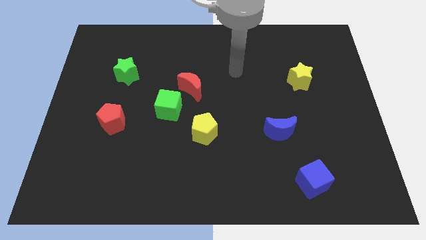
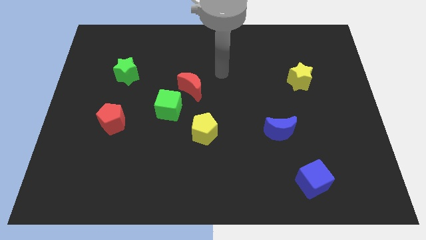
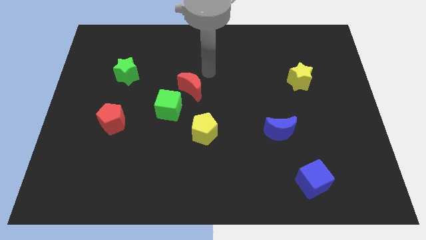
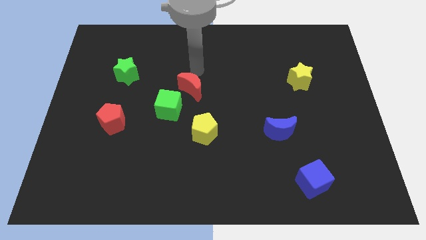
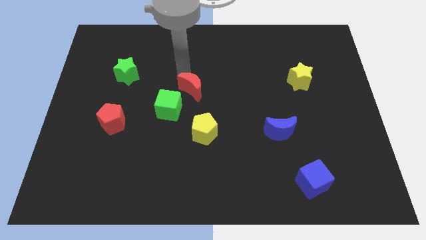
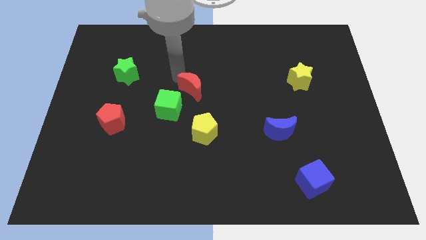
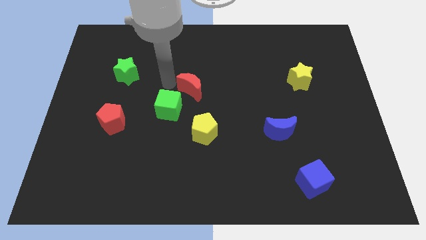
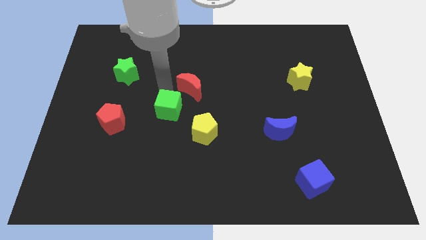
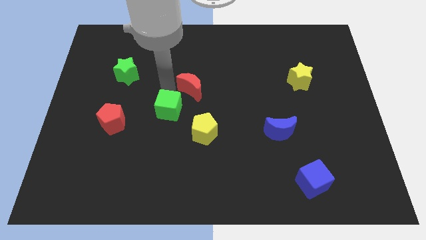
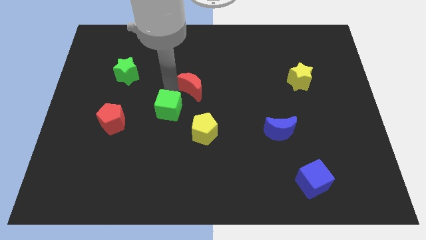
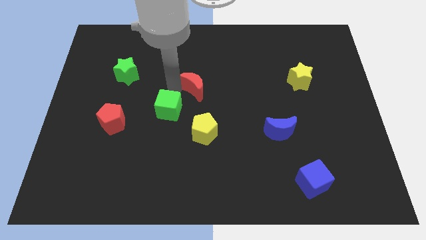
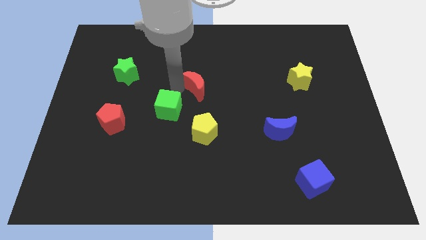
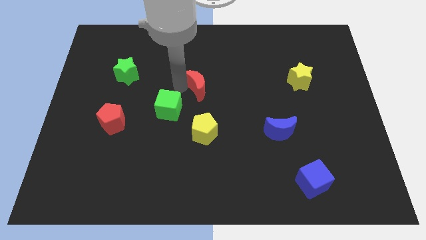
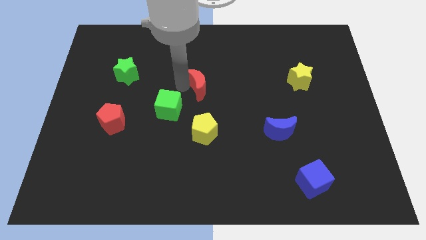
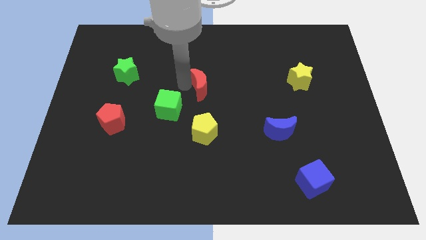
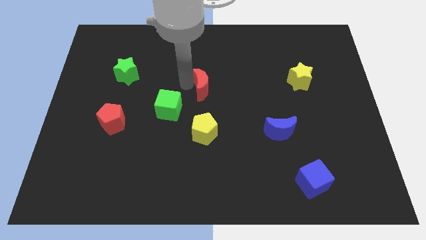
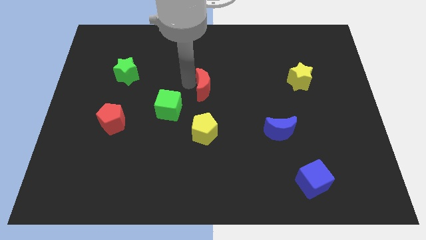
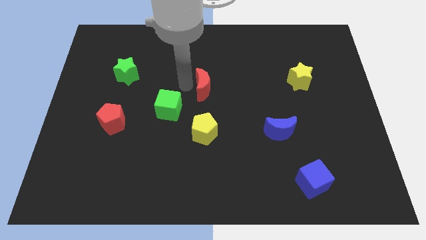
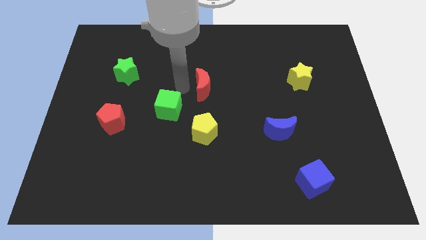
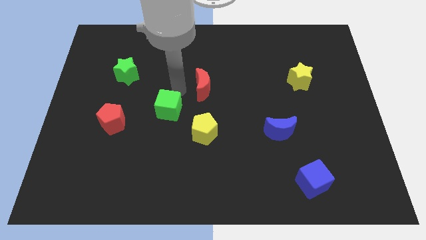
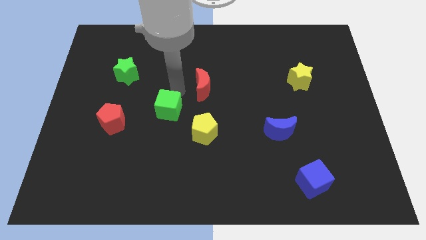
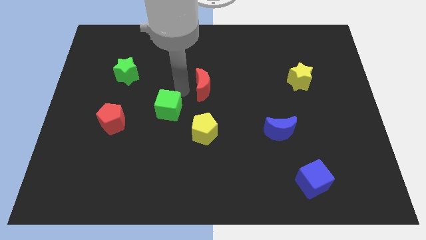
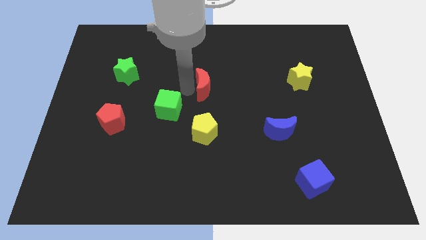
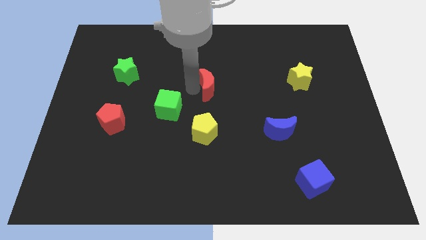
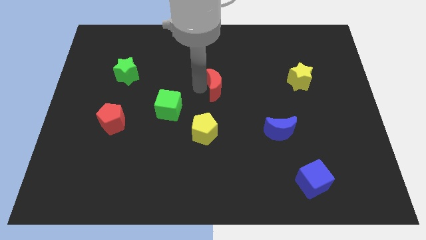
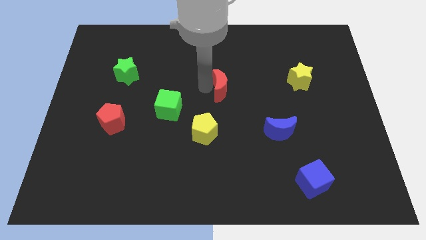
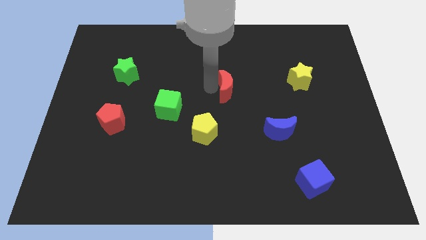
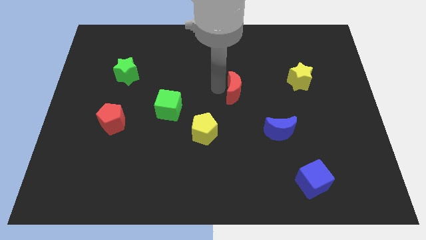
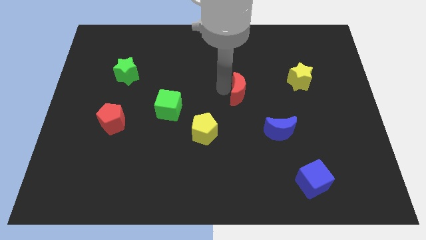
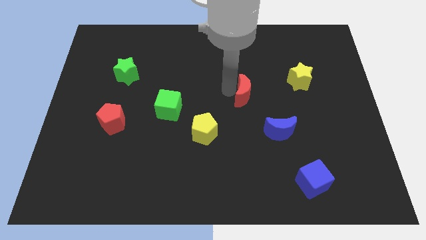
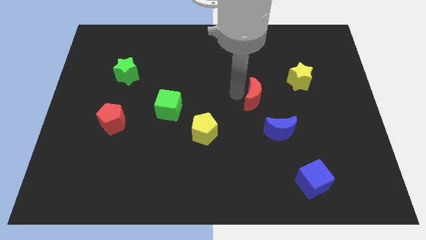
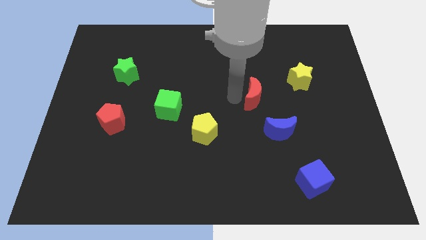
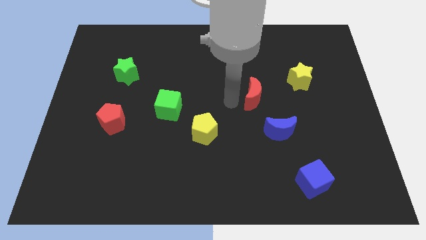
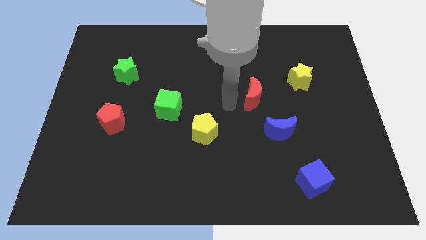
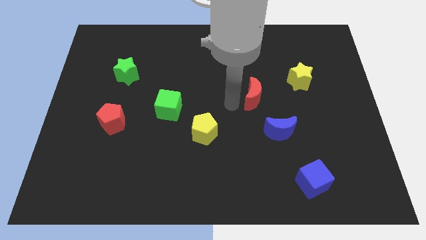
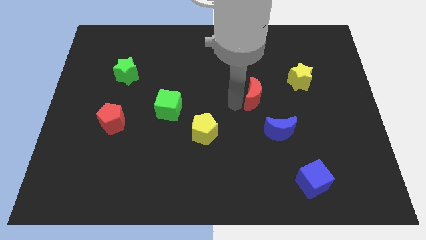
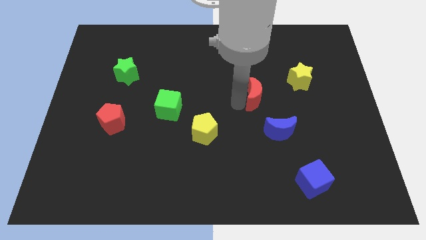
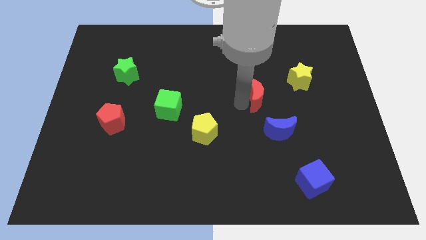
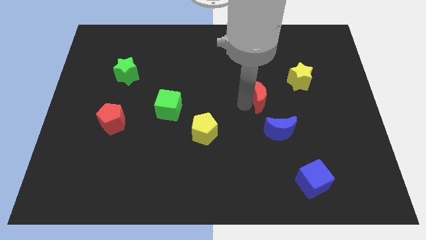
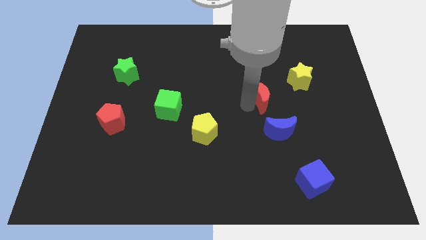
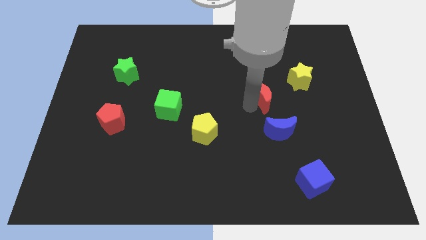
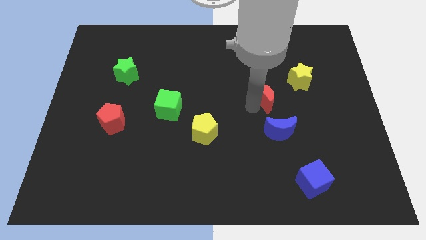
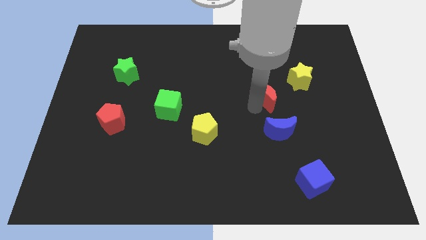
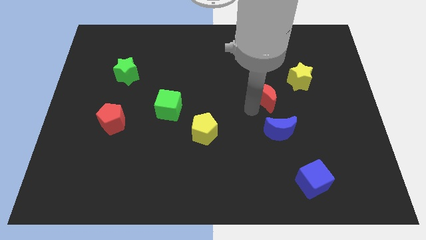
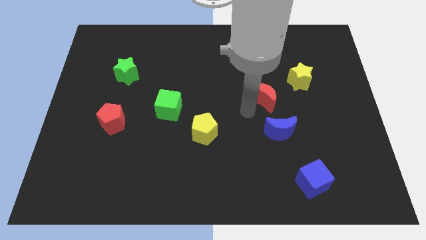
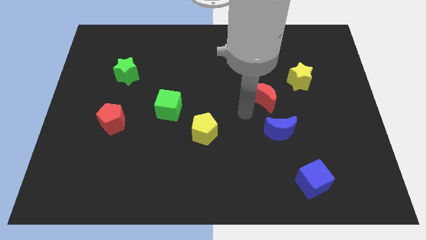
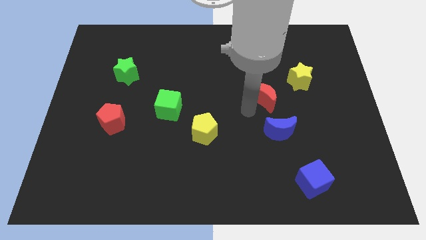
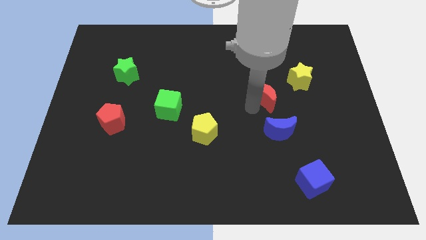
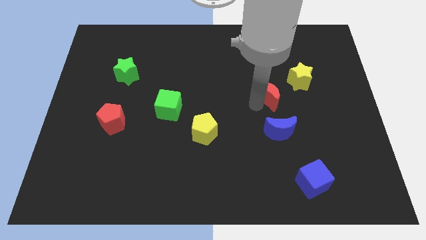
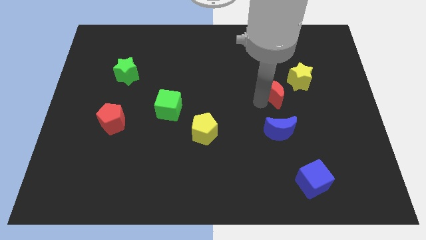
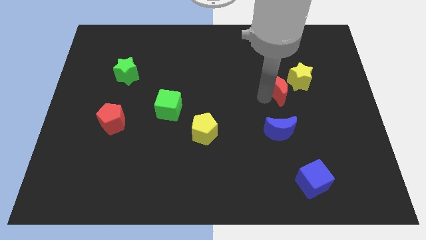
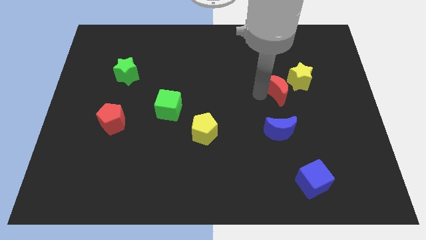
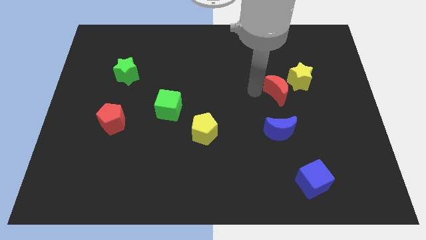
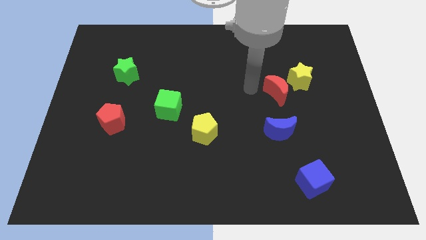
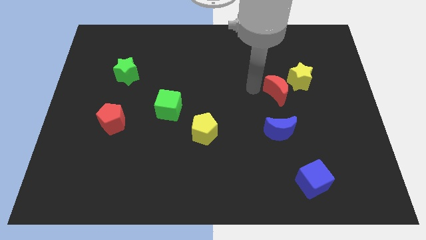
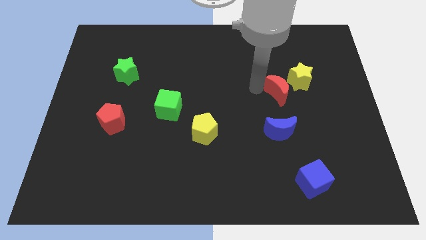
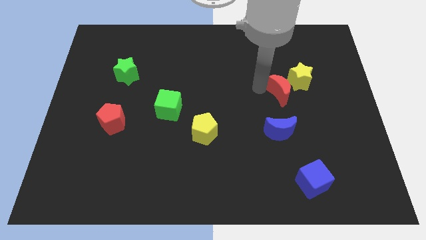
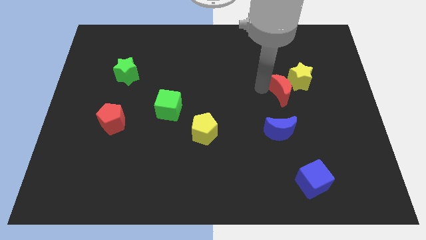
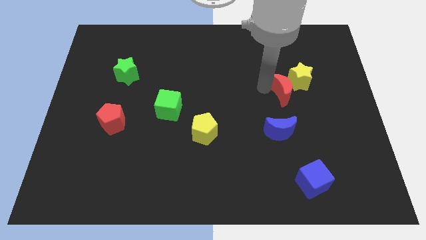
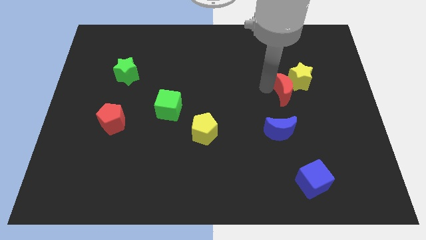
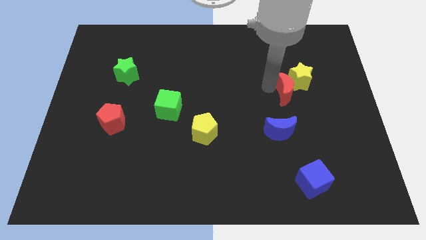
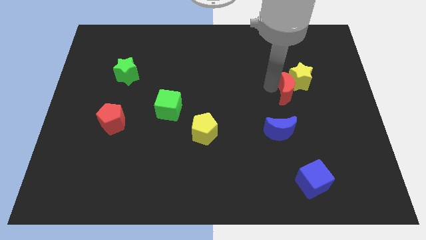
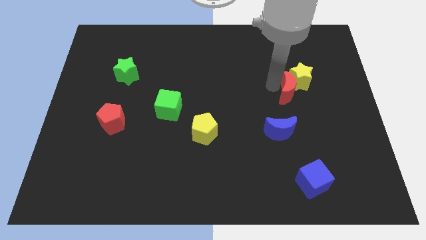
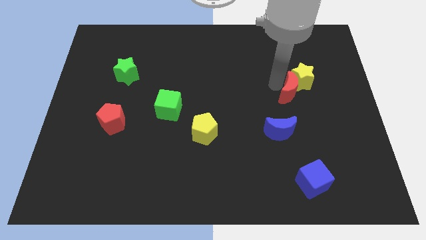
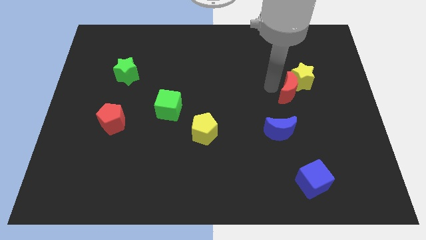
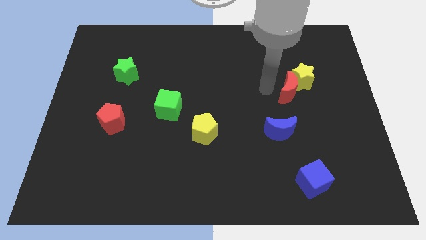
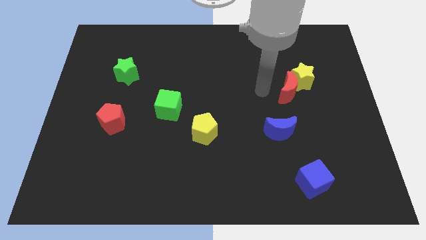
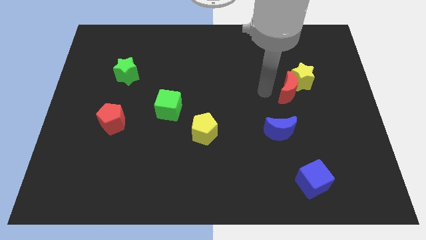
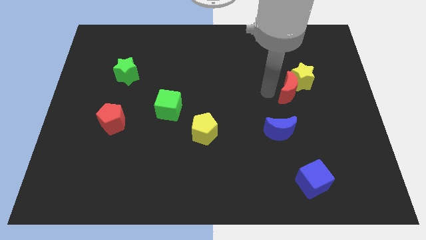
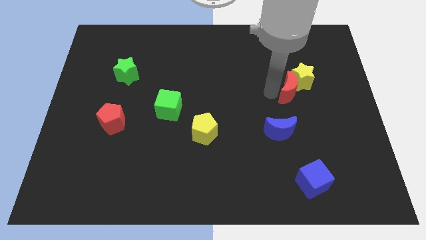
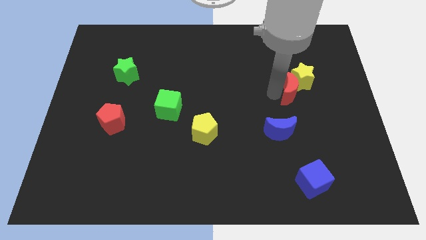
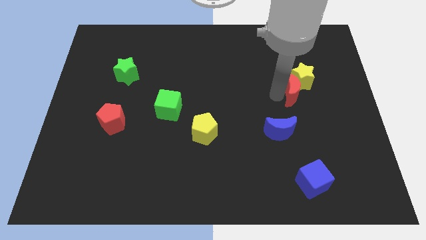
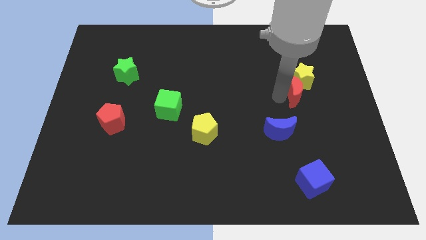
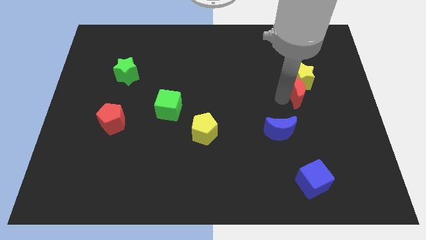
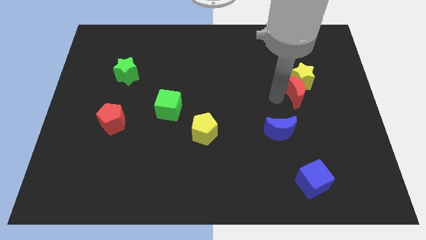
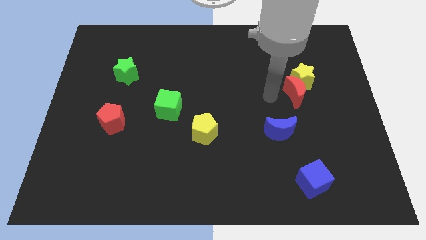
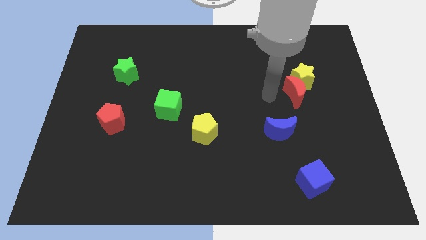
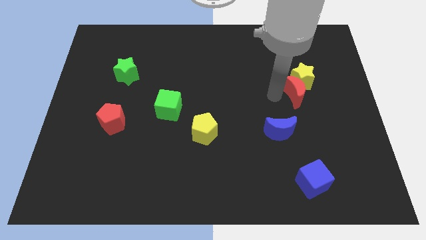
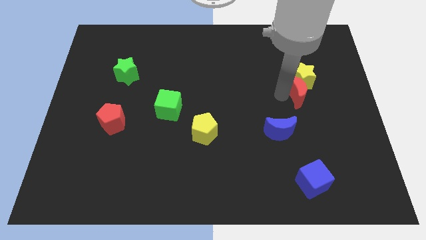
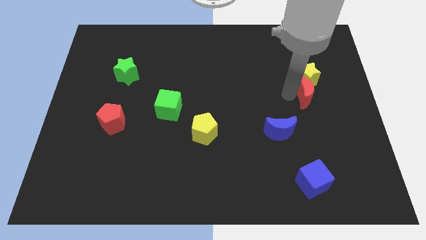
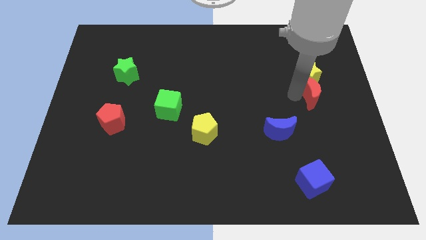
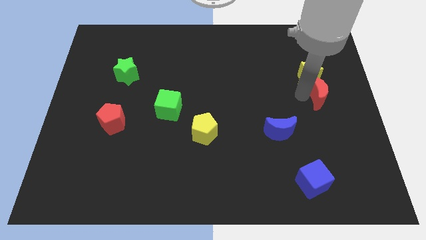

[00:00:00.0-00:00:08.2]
slide the red moon to the center right
